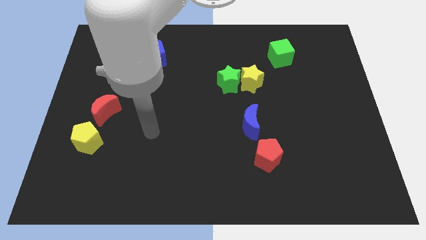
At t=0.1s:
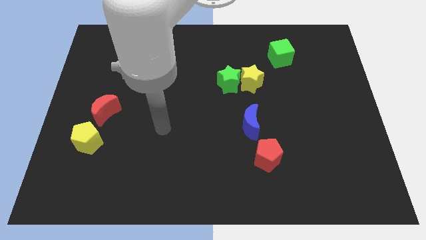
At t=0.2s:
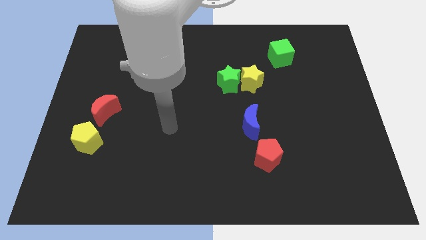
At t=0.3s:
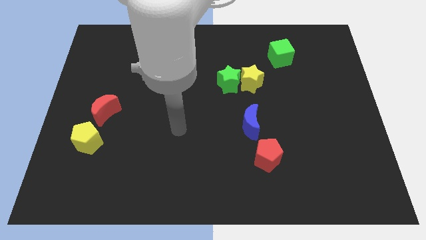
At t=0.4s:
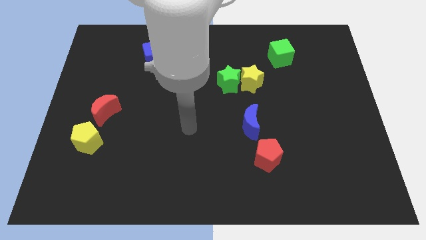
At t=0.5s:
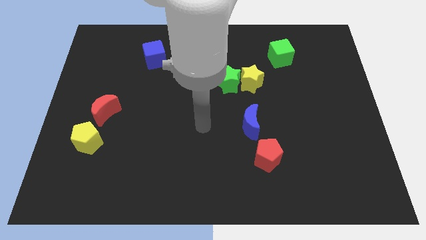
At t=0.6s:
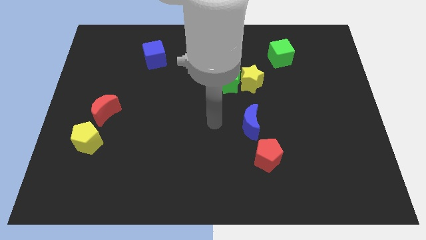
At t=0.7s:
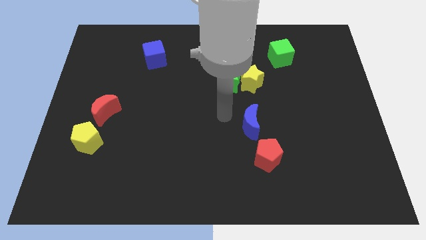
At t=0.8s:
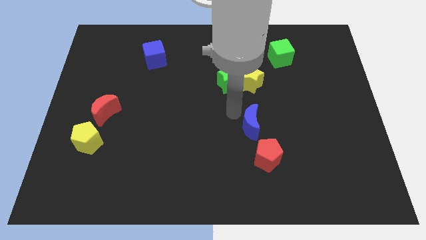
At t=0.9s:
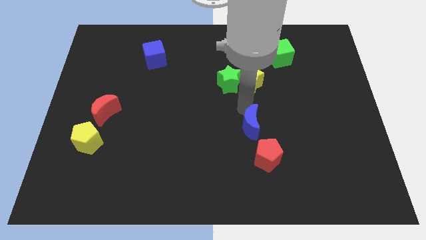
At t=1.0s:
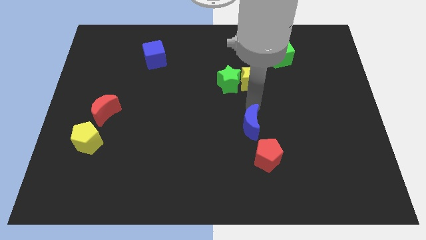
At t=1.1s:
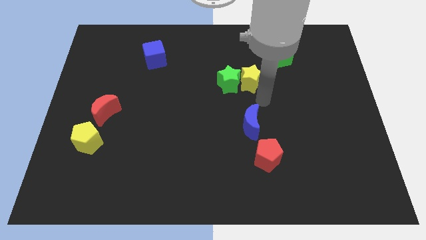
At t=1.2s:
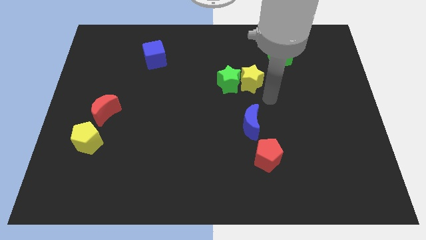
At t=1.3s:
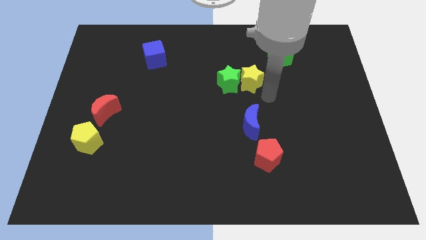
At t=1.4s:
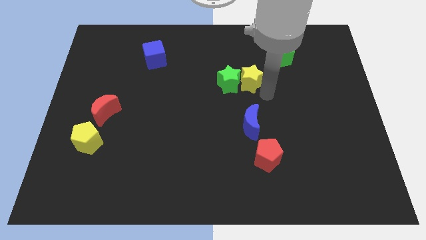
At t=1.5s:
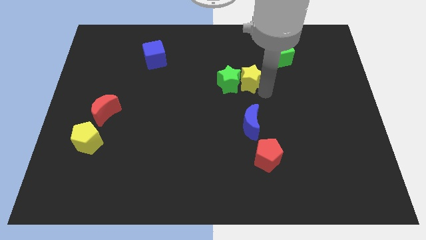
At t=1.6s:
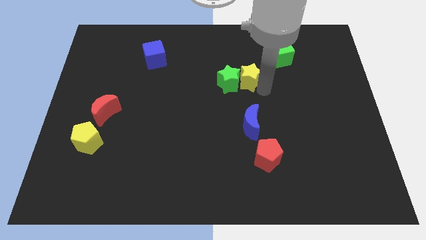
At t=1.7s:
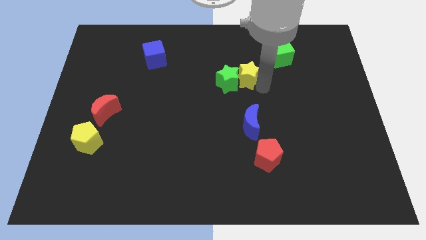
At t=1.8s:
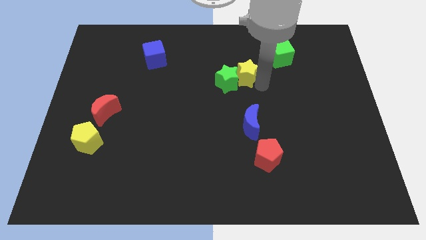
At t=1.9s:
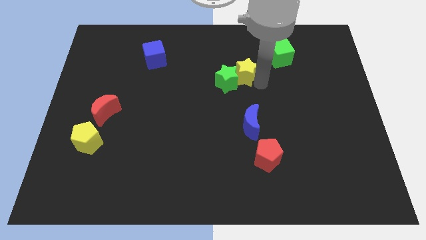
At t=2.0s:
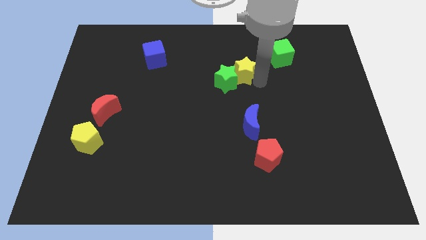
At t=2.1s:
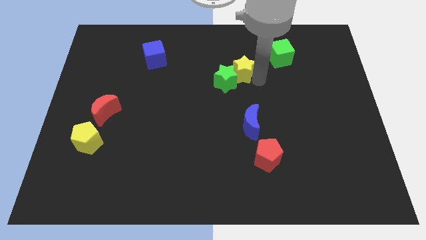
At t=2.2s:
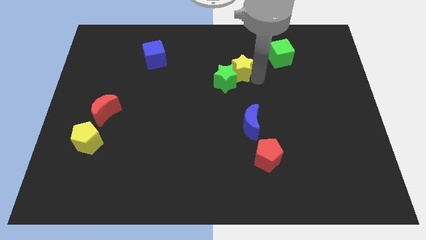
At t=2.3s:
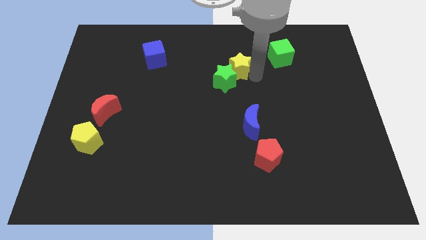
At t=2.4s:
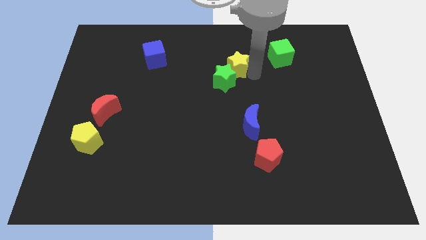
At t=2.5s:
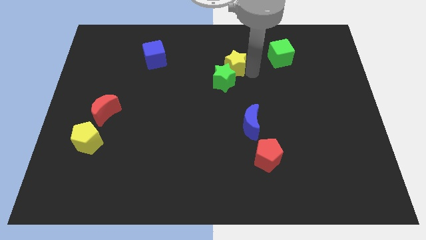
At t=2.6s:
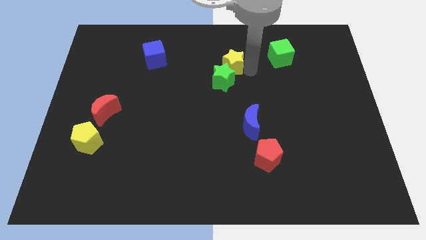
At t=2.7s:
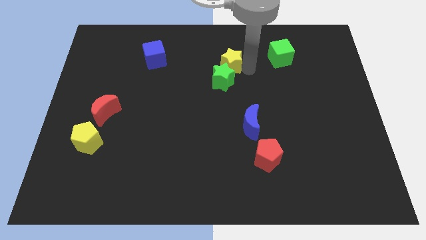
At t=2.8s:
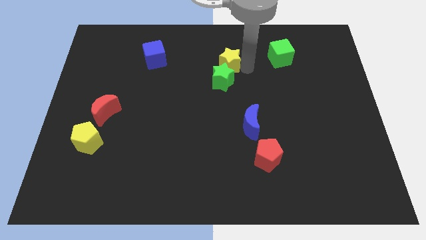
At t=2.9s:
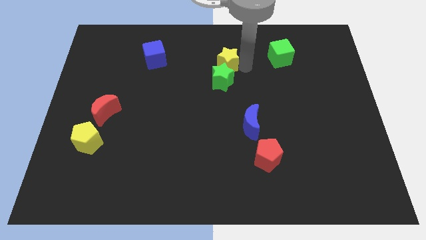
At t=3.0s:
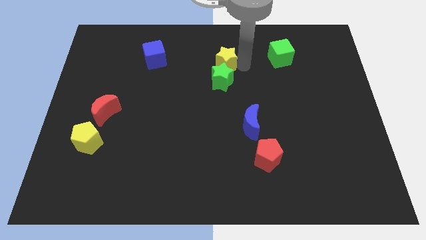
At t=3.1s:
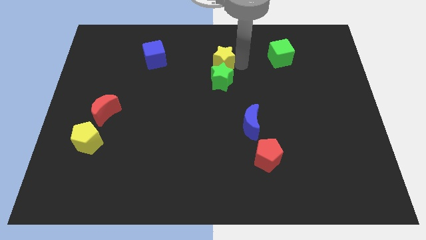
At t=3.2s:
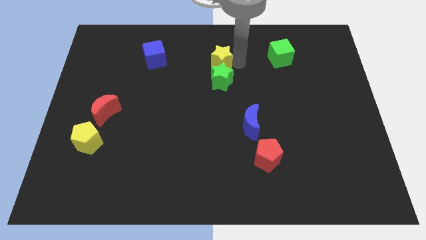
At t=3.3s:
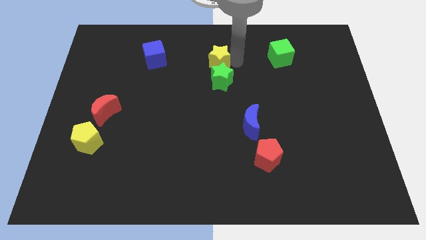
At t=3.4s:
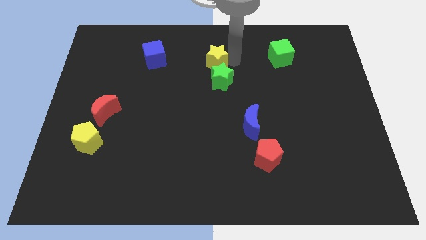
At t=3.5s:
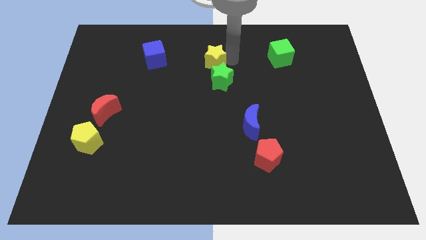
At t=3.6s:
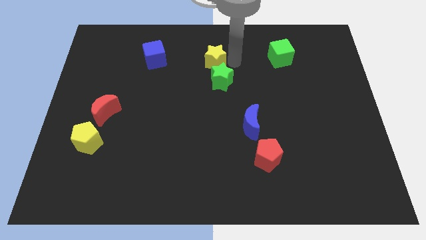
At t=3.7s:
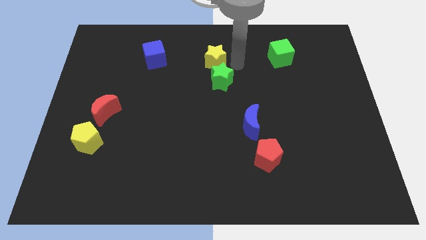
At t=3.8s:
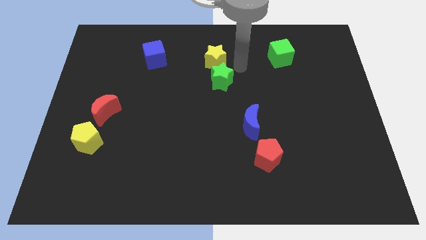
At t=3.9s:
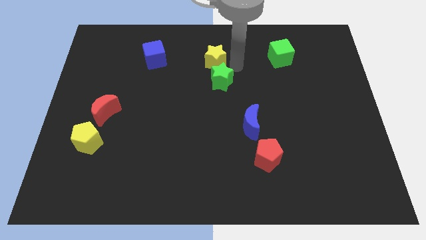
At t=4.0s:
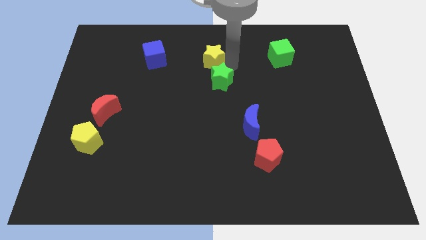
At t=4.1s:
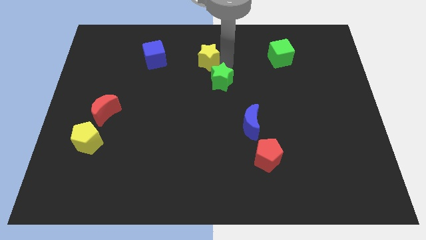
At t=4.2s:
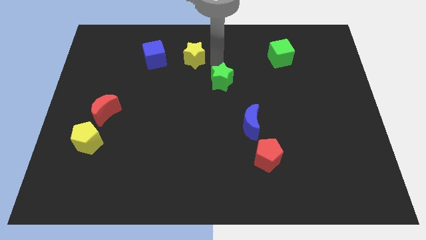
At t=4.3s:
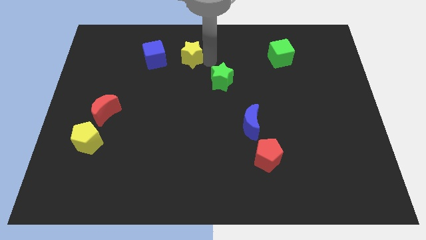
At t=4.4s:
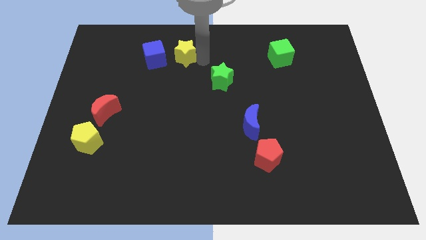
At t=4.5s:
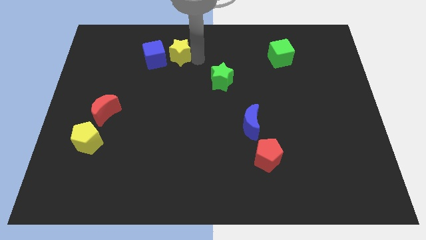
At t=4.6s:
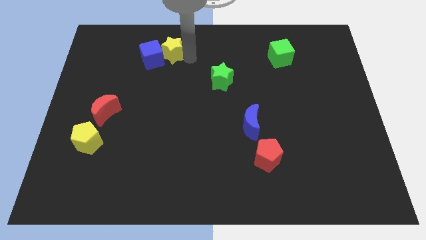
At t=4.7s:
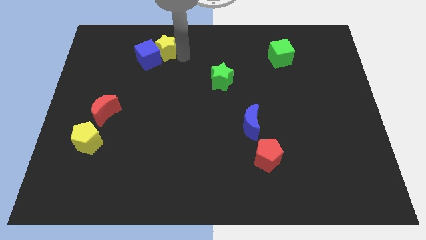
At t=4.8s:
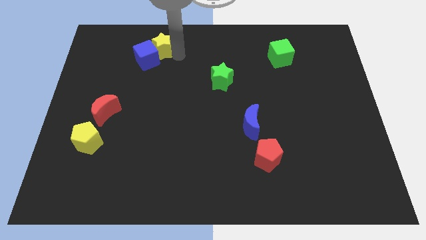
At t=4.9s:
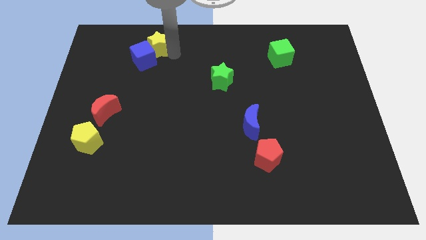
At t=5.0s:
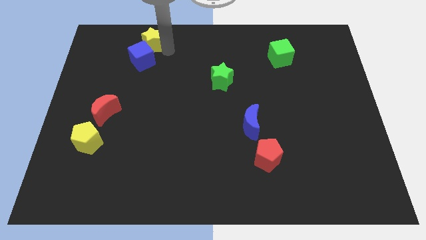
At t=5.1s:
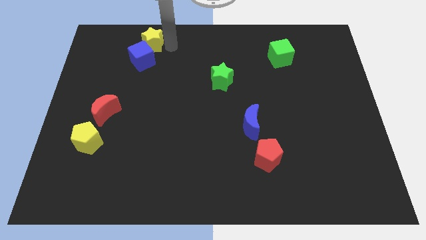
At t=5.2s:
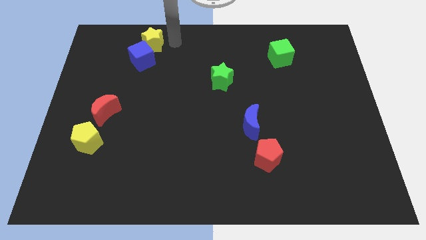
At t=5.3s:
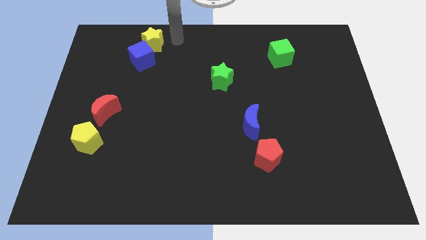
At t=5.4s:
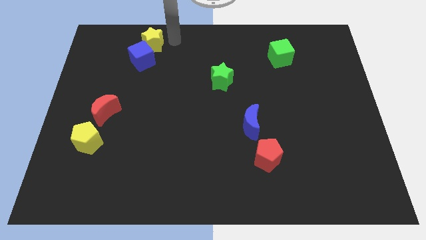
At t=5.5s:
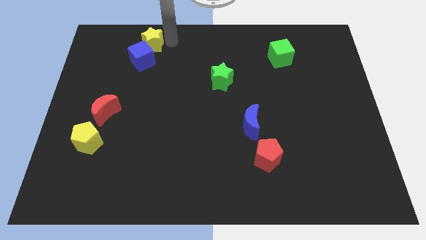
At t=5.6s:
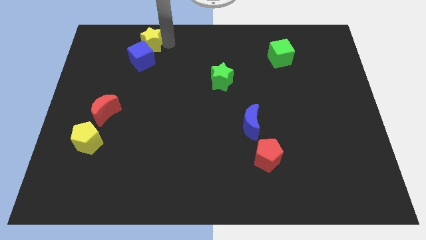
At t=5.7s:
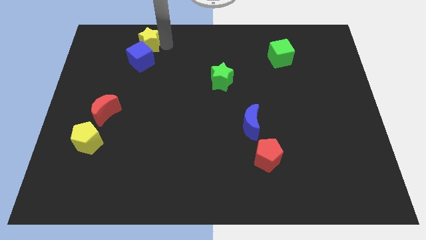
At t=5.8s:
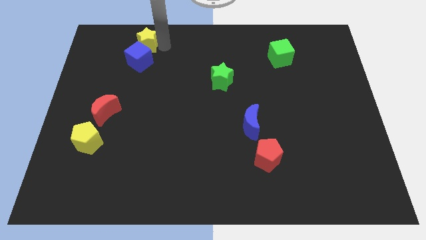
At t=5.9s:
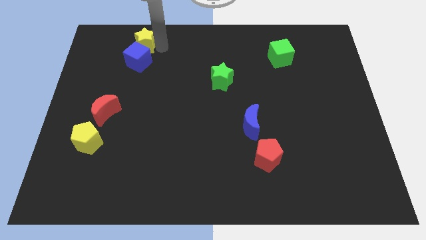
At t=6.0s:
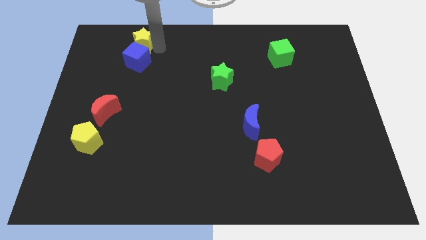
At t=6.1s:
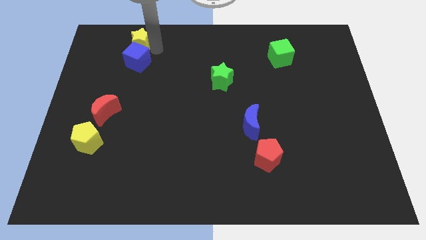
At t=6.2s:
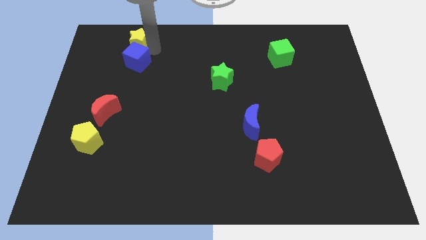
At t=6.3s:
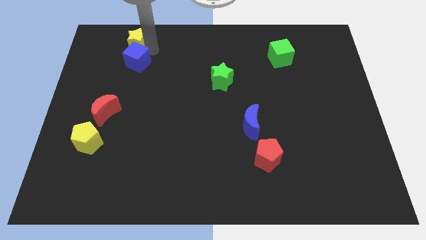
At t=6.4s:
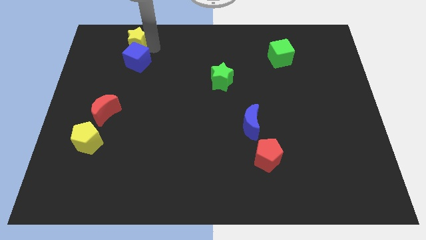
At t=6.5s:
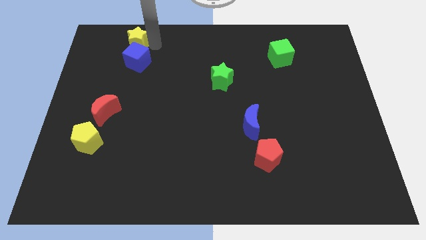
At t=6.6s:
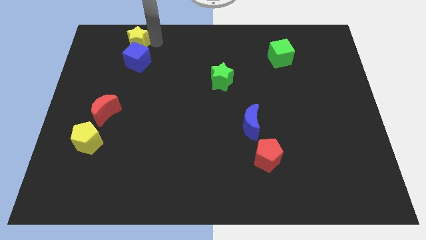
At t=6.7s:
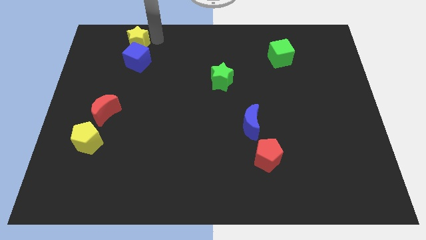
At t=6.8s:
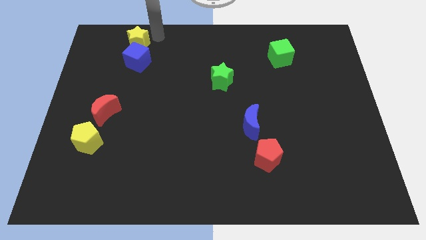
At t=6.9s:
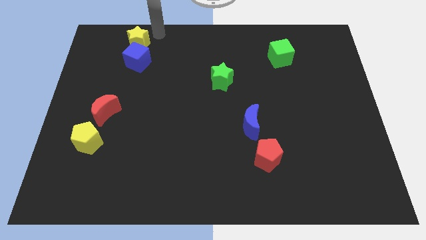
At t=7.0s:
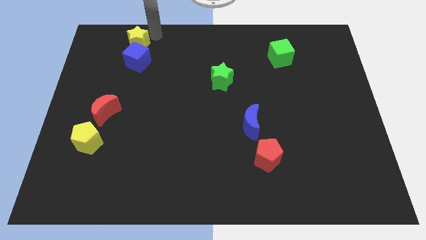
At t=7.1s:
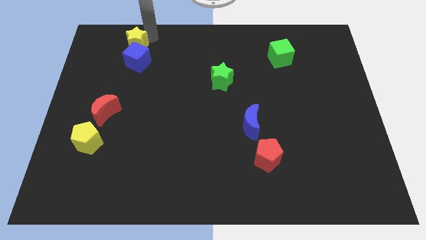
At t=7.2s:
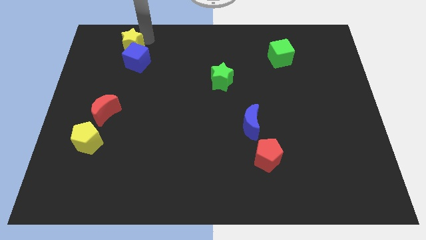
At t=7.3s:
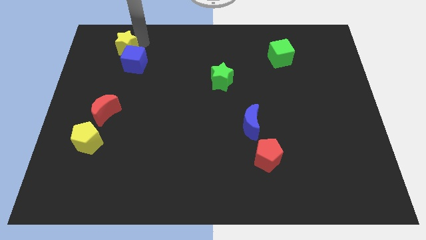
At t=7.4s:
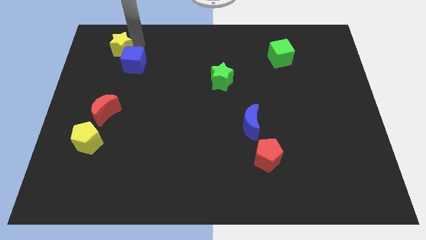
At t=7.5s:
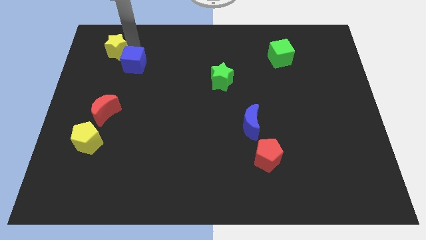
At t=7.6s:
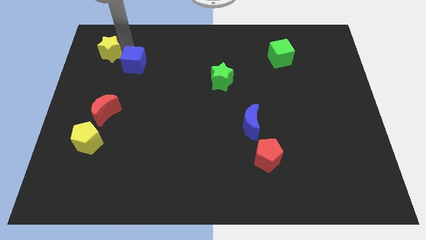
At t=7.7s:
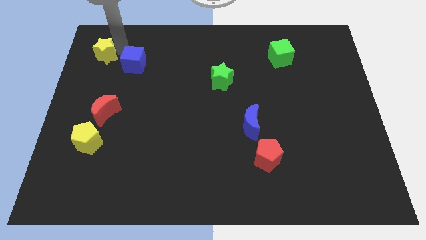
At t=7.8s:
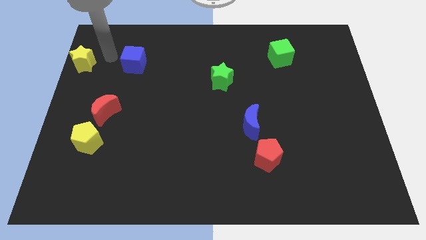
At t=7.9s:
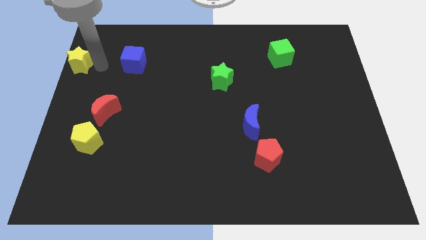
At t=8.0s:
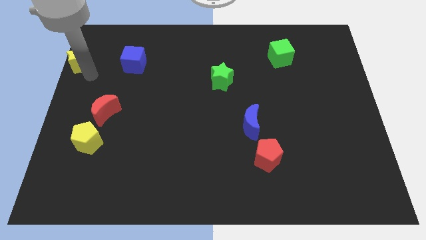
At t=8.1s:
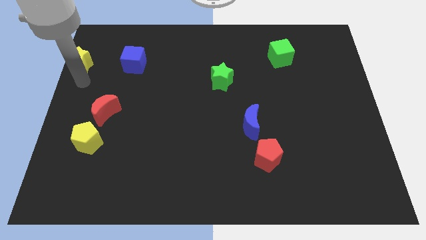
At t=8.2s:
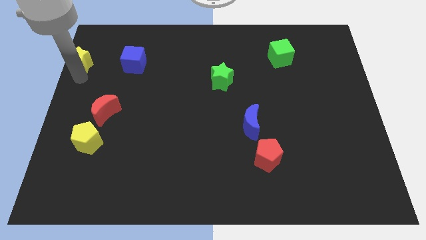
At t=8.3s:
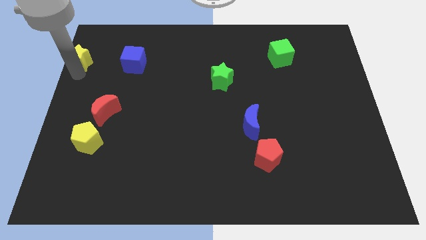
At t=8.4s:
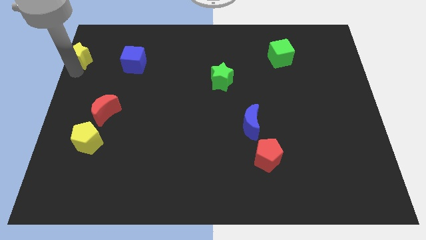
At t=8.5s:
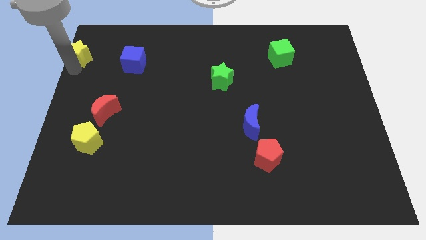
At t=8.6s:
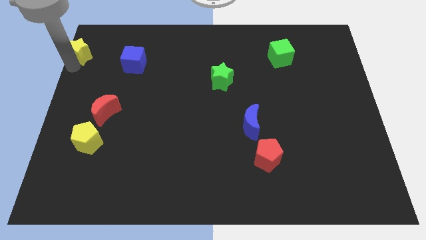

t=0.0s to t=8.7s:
push the yellow star to the top left
